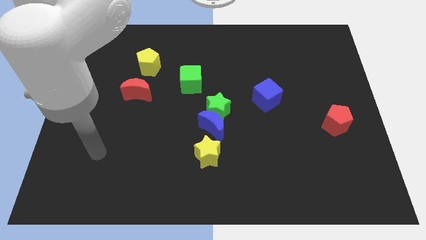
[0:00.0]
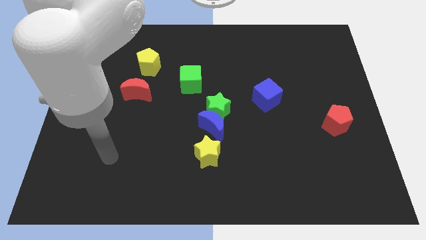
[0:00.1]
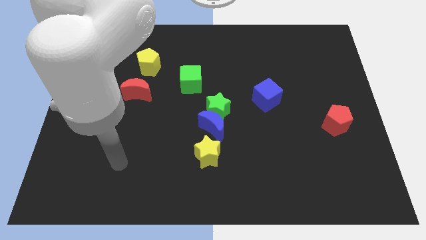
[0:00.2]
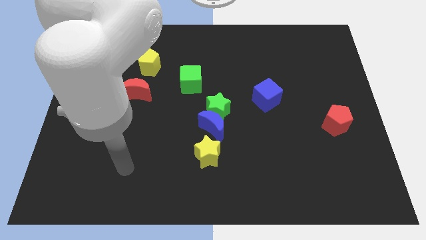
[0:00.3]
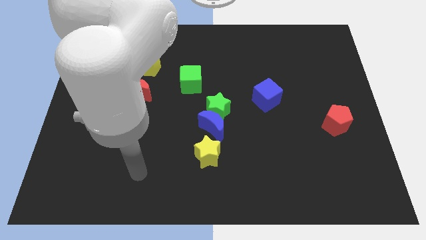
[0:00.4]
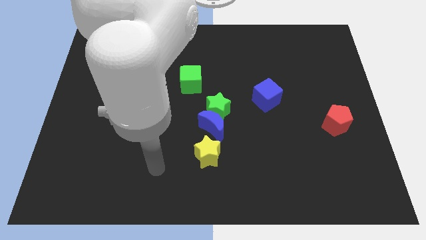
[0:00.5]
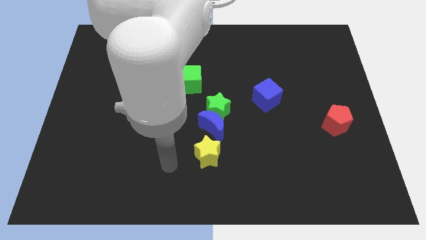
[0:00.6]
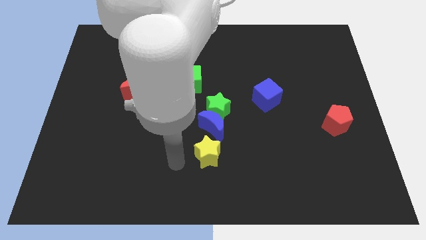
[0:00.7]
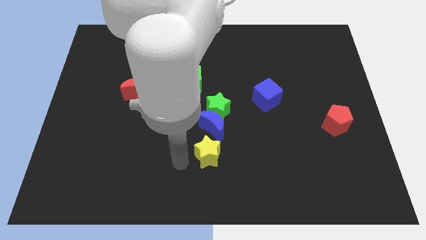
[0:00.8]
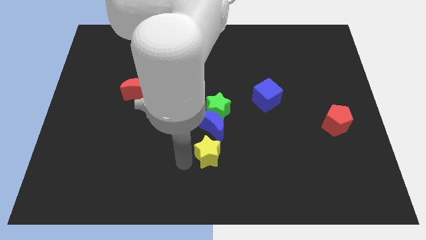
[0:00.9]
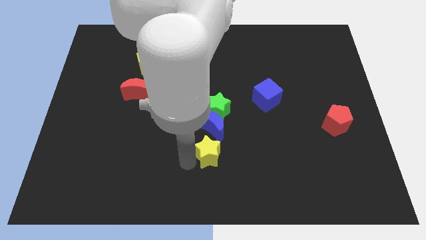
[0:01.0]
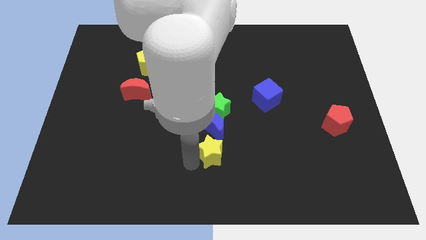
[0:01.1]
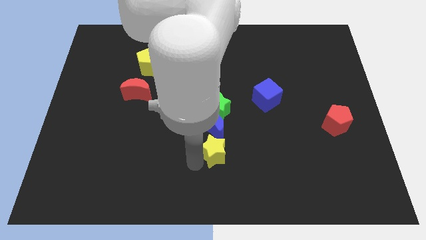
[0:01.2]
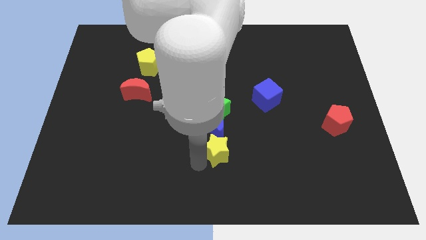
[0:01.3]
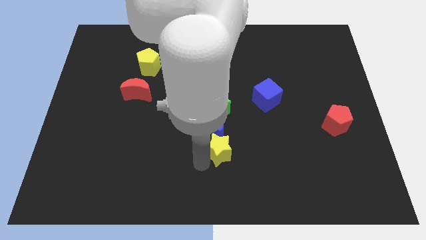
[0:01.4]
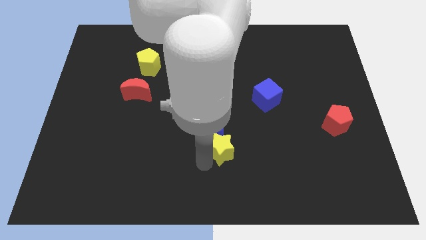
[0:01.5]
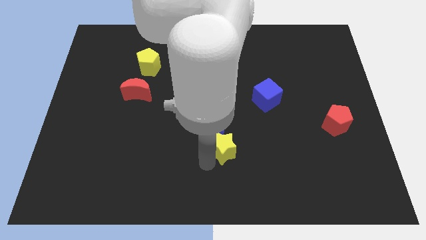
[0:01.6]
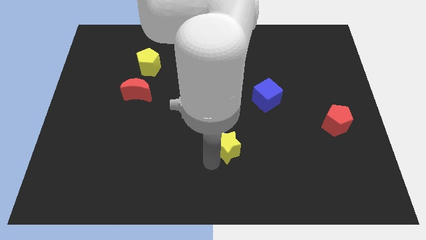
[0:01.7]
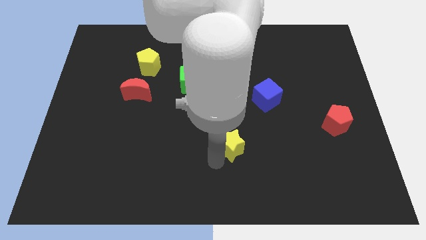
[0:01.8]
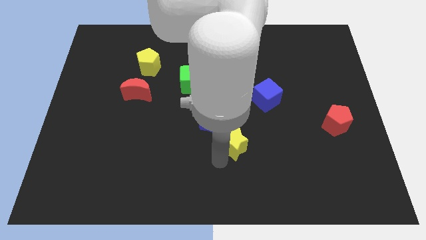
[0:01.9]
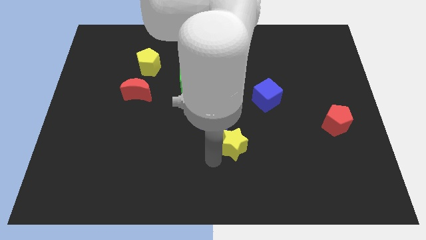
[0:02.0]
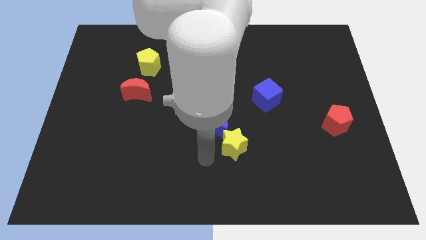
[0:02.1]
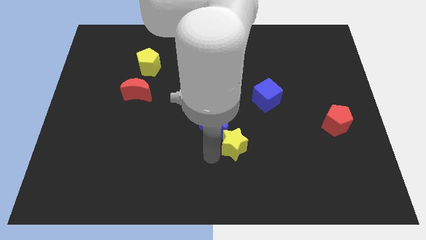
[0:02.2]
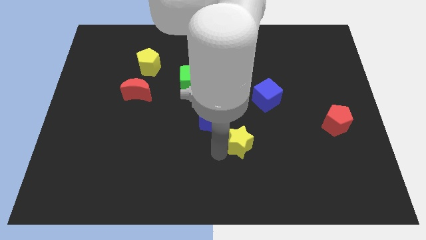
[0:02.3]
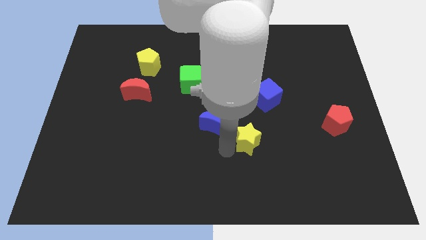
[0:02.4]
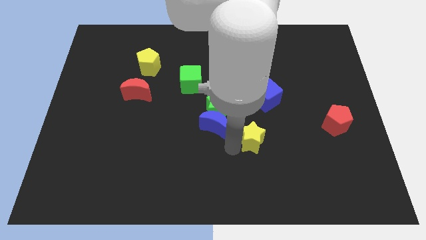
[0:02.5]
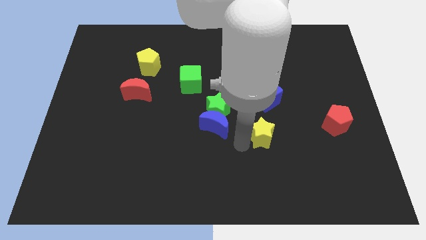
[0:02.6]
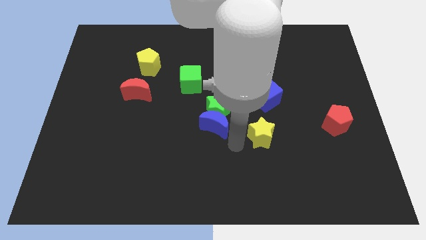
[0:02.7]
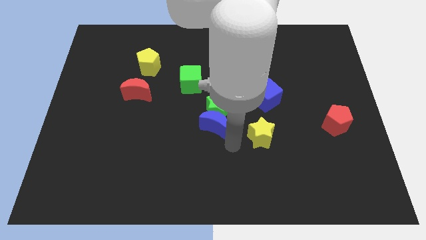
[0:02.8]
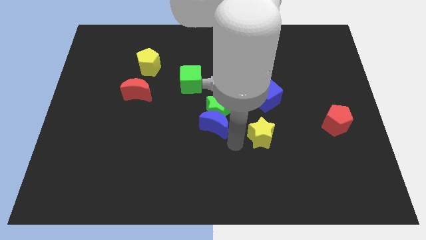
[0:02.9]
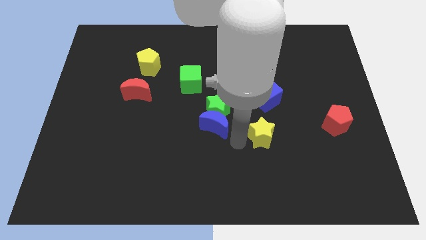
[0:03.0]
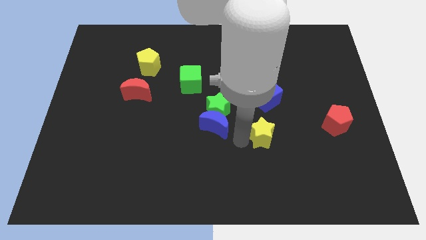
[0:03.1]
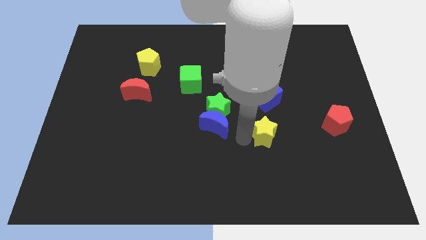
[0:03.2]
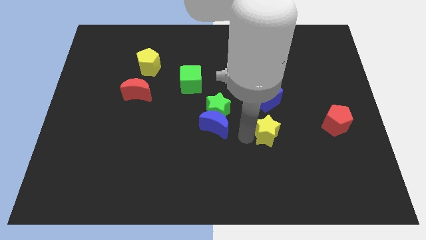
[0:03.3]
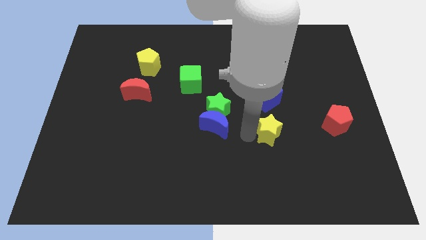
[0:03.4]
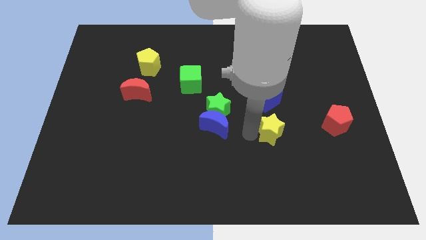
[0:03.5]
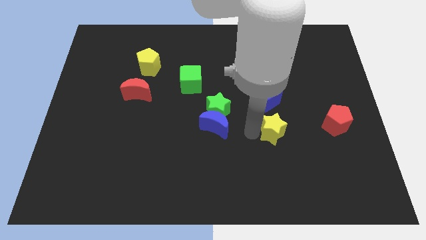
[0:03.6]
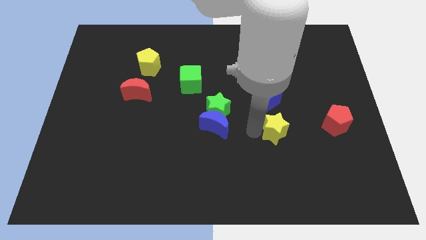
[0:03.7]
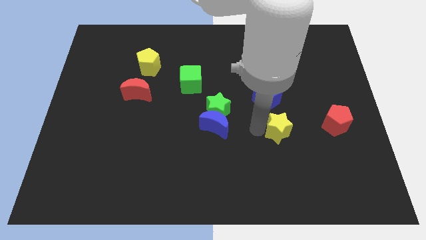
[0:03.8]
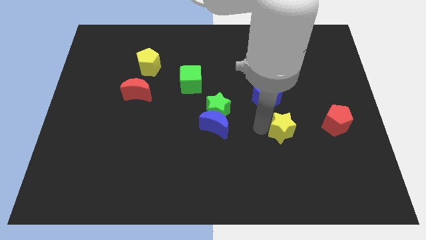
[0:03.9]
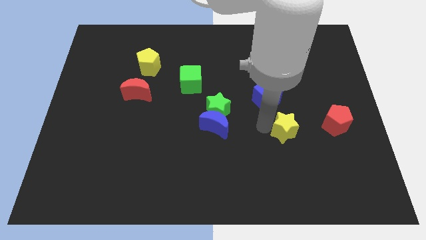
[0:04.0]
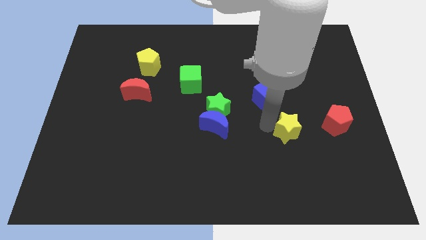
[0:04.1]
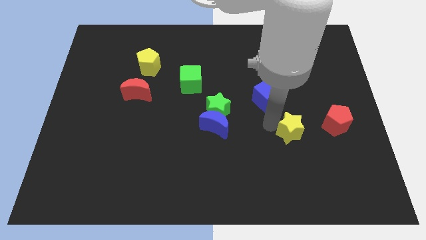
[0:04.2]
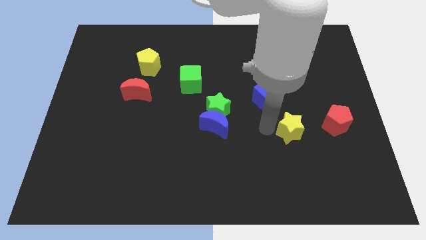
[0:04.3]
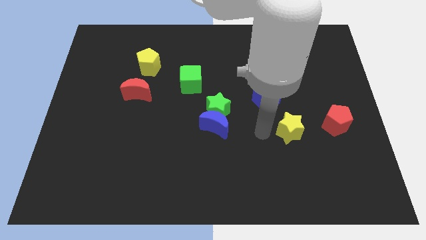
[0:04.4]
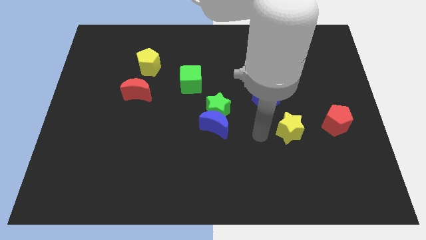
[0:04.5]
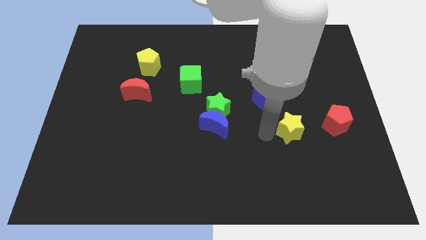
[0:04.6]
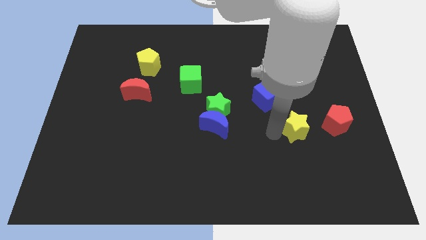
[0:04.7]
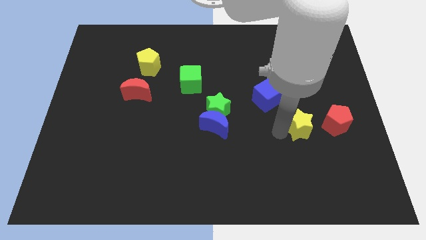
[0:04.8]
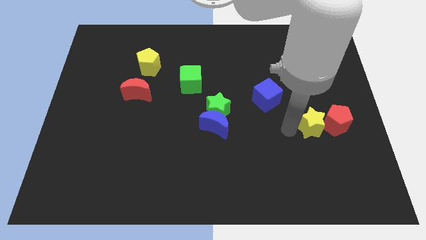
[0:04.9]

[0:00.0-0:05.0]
put the yellow star towards the red pentagon

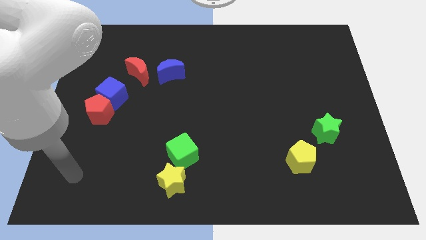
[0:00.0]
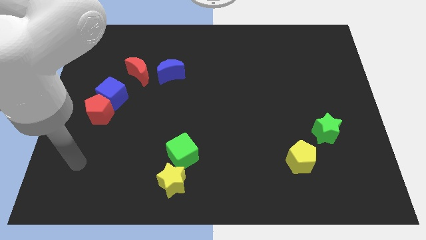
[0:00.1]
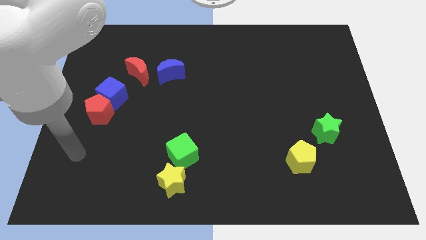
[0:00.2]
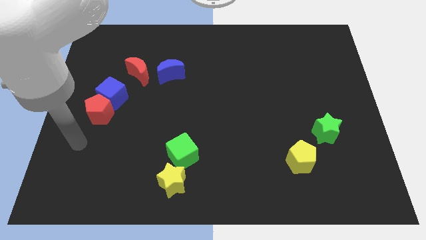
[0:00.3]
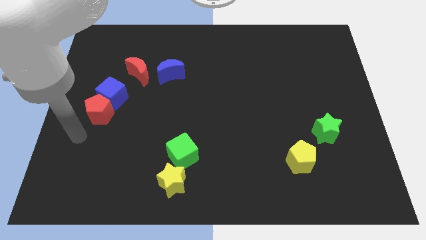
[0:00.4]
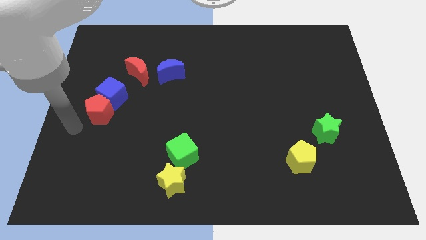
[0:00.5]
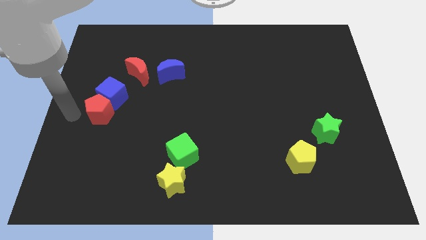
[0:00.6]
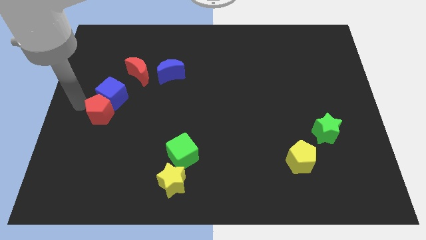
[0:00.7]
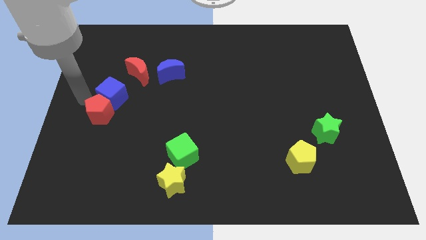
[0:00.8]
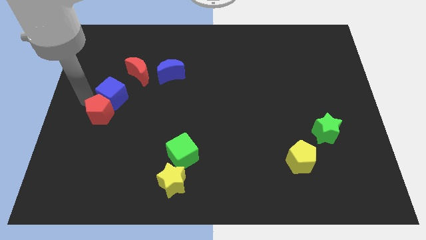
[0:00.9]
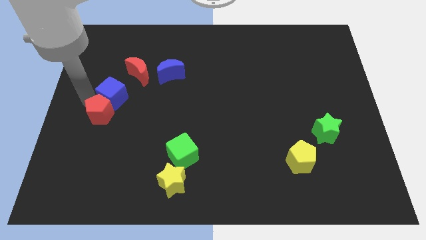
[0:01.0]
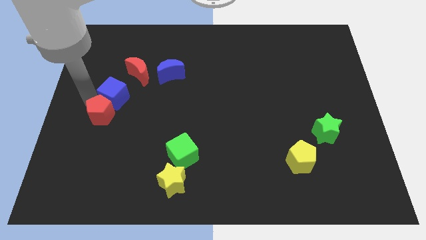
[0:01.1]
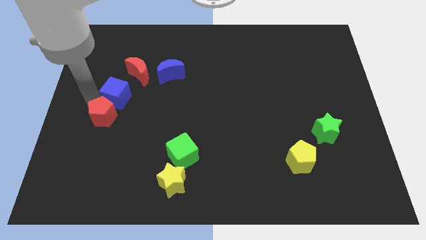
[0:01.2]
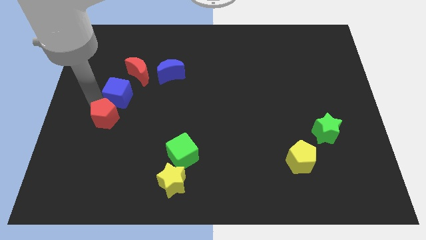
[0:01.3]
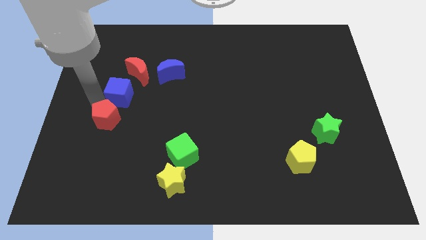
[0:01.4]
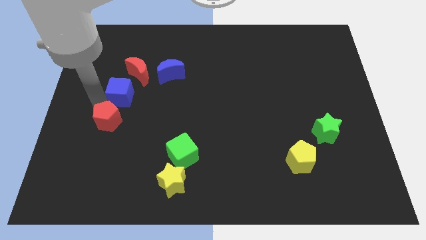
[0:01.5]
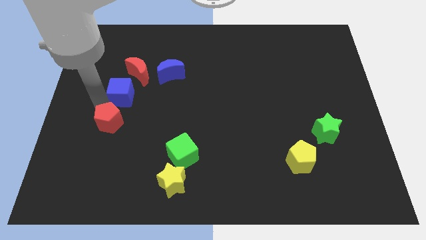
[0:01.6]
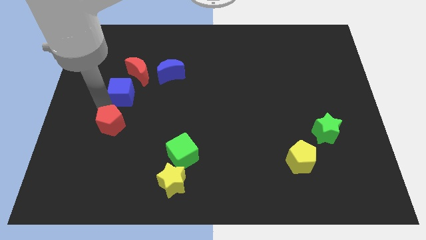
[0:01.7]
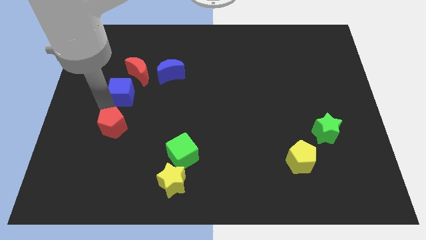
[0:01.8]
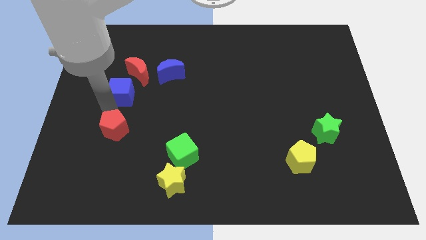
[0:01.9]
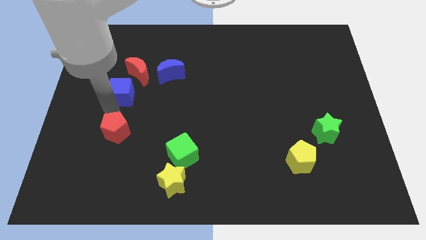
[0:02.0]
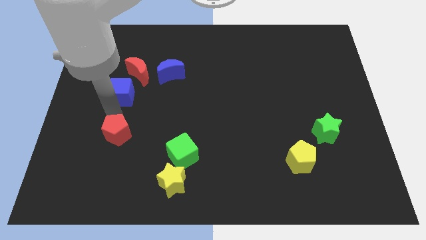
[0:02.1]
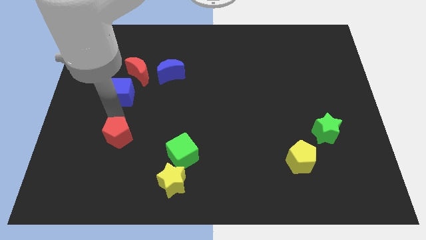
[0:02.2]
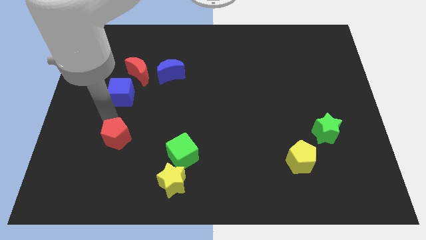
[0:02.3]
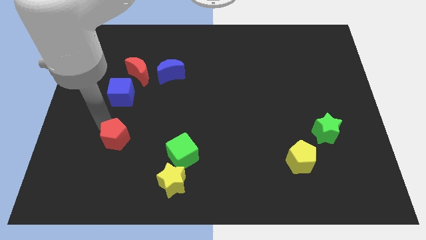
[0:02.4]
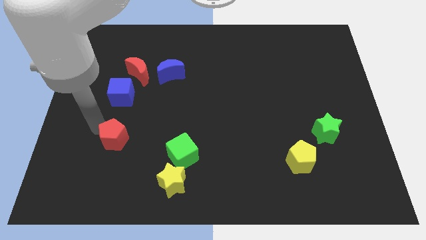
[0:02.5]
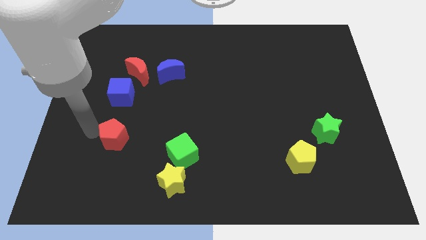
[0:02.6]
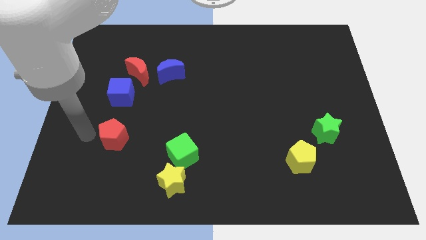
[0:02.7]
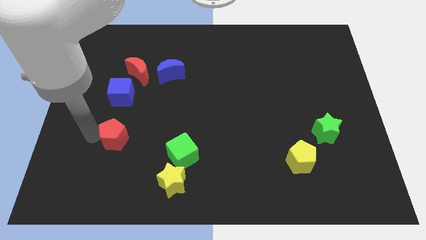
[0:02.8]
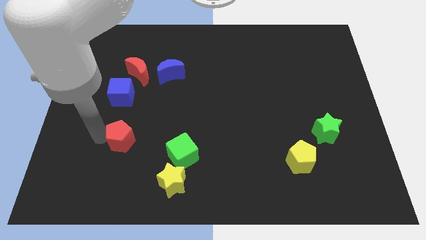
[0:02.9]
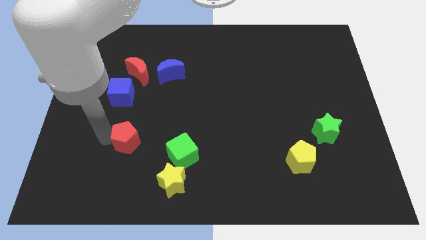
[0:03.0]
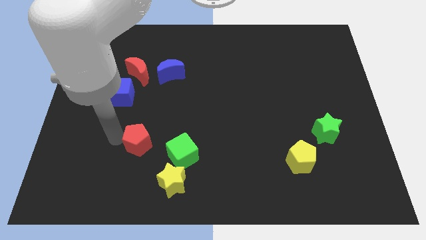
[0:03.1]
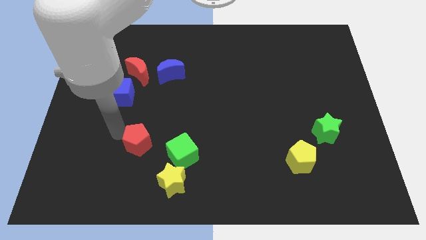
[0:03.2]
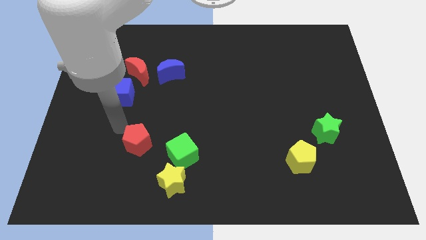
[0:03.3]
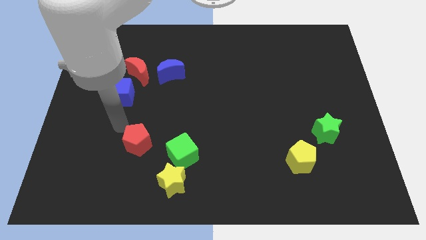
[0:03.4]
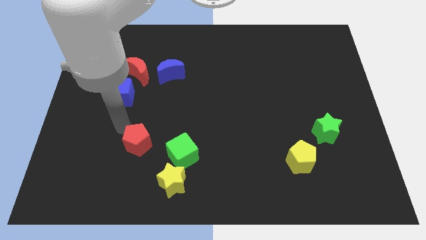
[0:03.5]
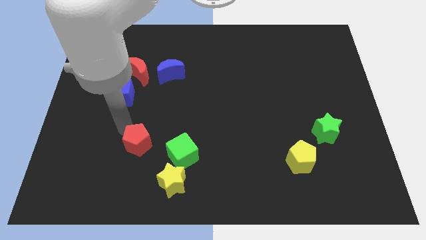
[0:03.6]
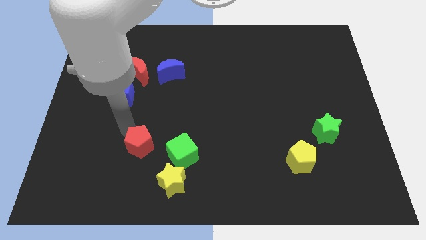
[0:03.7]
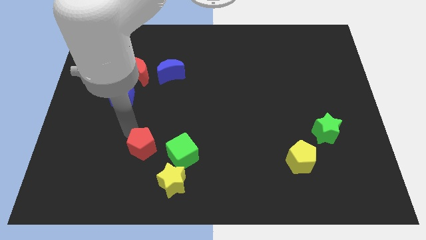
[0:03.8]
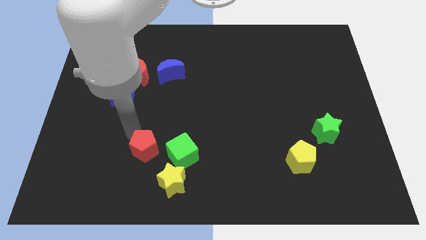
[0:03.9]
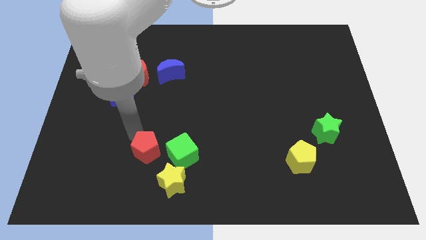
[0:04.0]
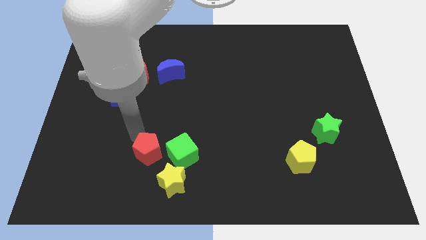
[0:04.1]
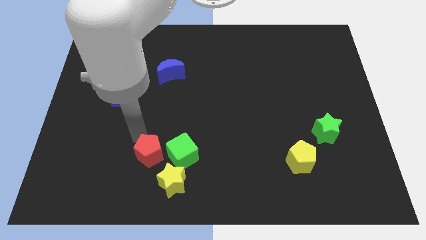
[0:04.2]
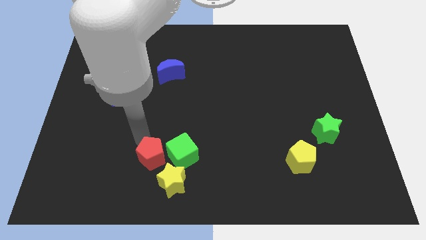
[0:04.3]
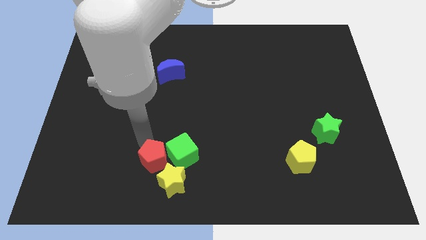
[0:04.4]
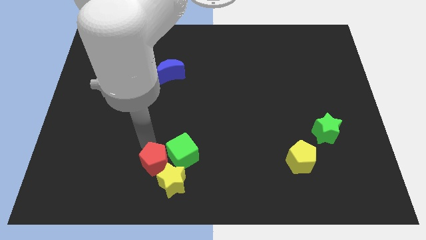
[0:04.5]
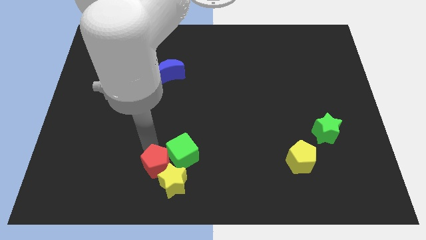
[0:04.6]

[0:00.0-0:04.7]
slide the red pentagon next to the yellow star
